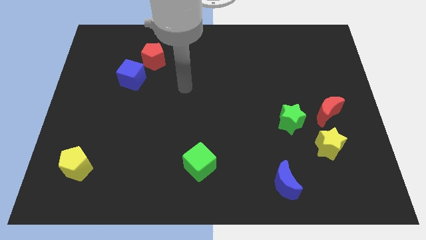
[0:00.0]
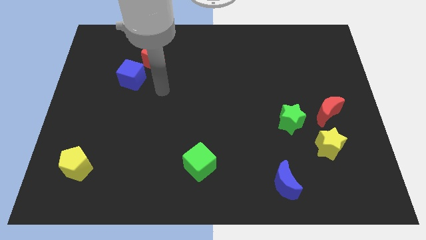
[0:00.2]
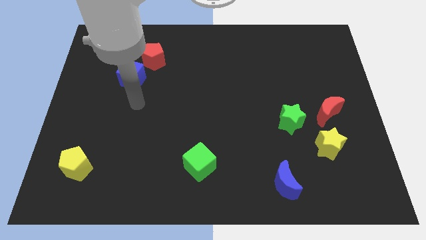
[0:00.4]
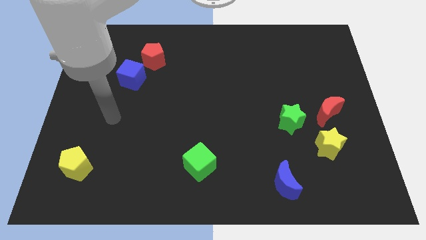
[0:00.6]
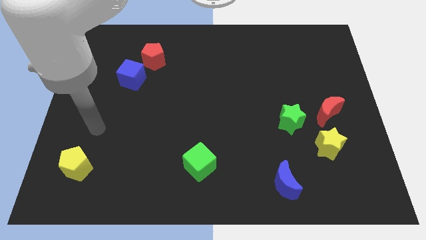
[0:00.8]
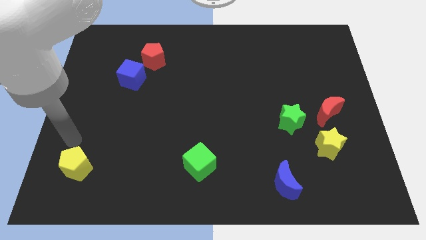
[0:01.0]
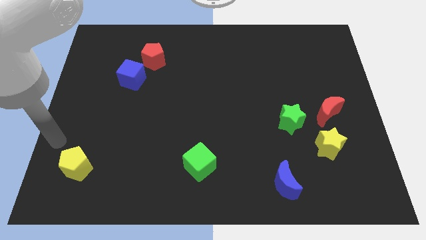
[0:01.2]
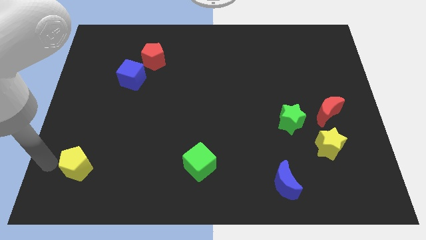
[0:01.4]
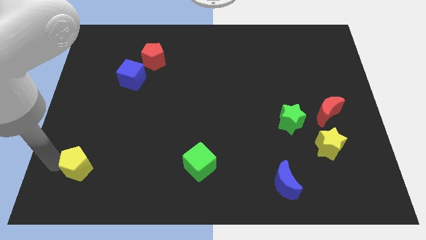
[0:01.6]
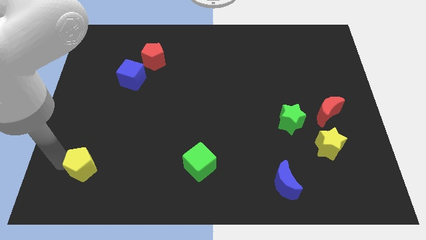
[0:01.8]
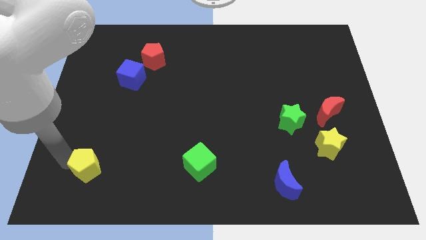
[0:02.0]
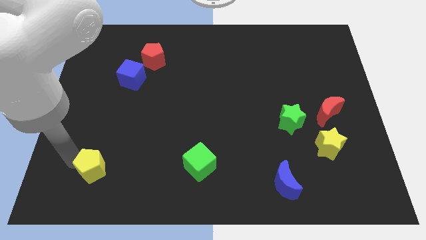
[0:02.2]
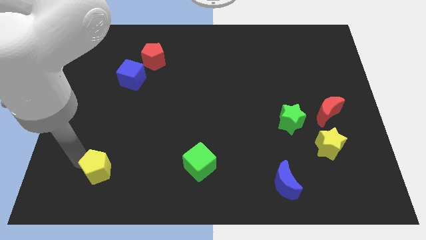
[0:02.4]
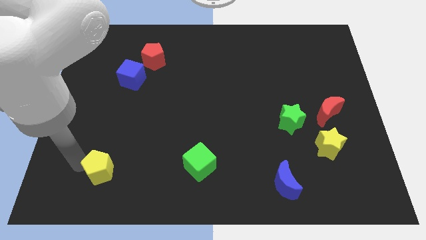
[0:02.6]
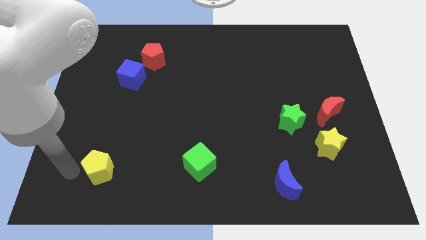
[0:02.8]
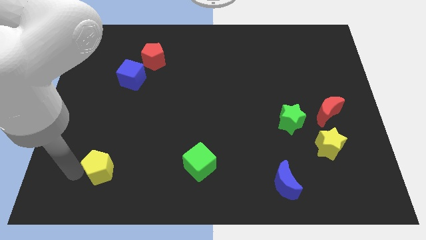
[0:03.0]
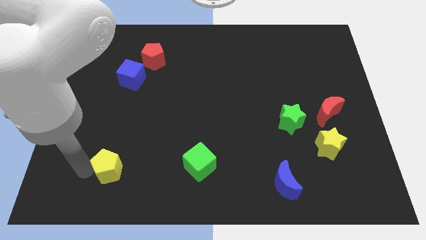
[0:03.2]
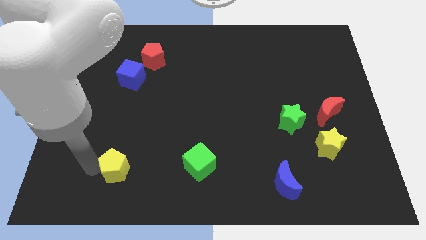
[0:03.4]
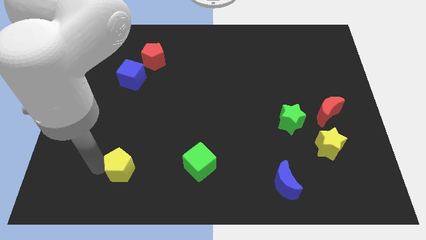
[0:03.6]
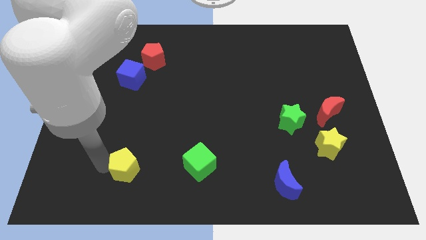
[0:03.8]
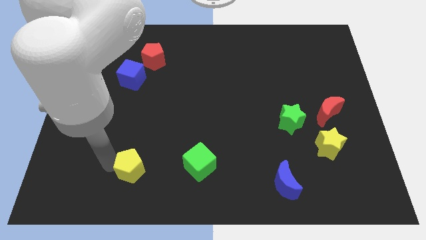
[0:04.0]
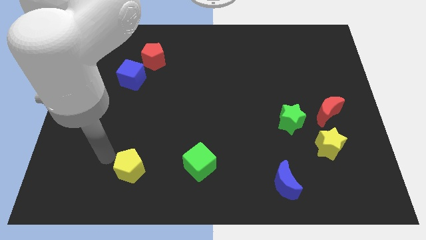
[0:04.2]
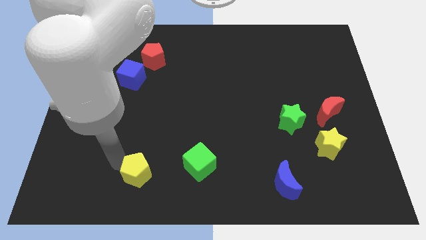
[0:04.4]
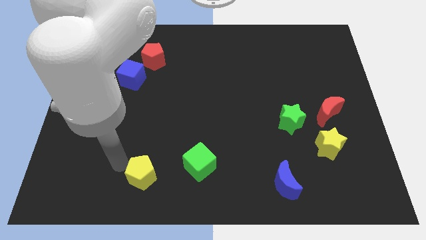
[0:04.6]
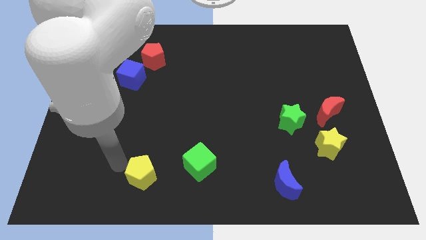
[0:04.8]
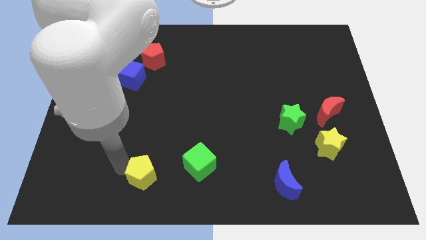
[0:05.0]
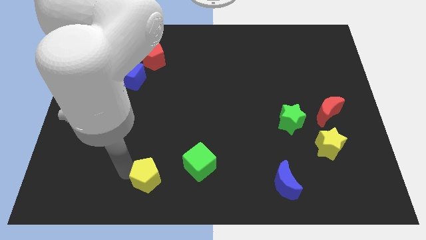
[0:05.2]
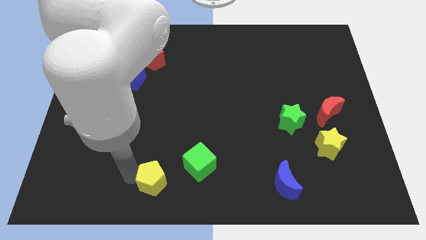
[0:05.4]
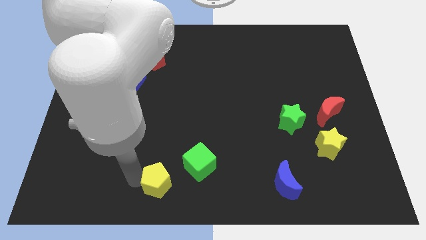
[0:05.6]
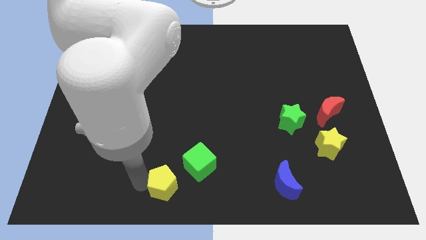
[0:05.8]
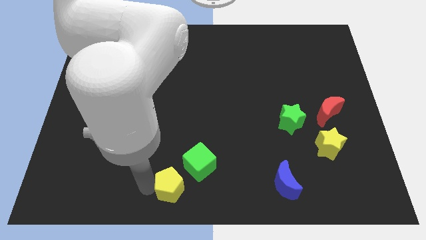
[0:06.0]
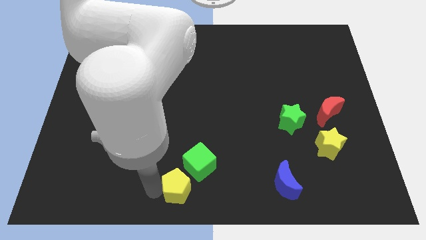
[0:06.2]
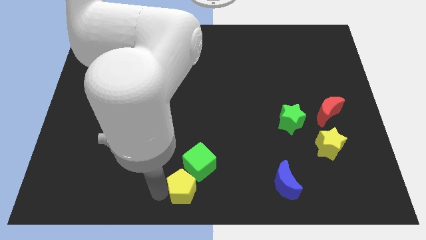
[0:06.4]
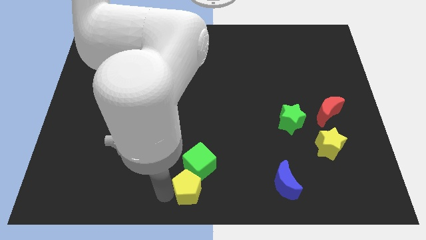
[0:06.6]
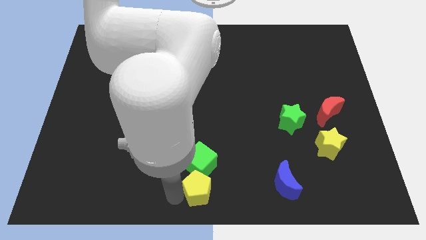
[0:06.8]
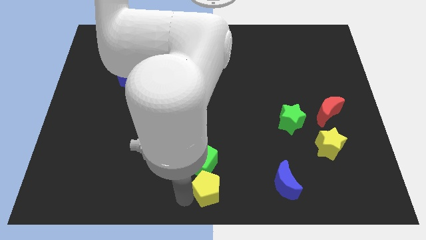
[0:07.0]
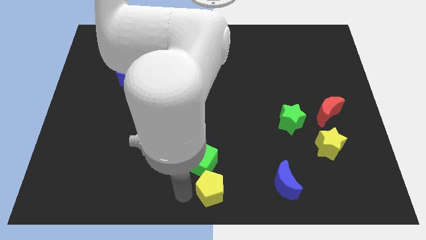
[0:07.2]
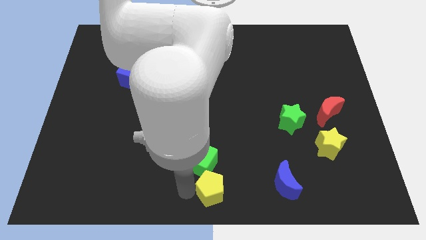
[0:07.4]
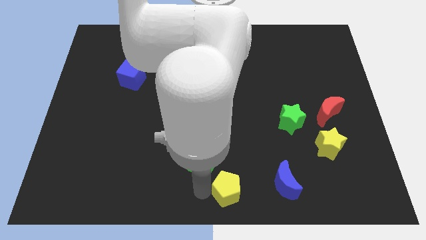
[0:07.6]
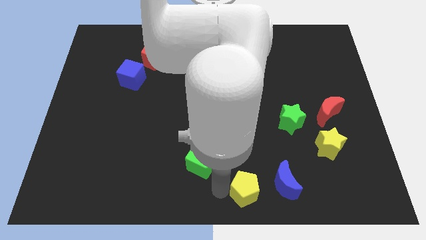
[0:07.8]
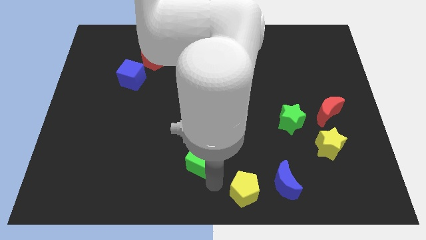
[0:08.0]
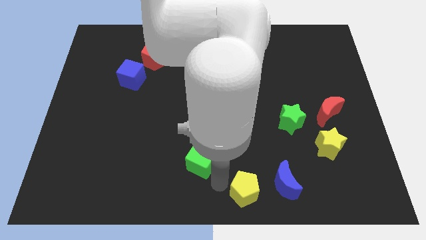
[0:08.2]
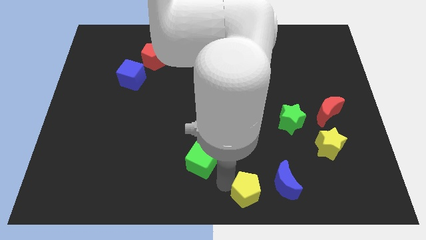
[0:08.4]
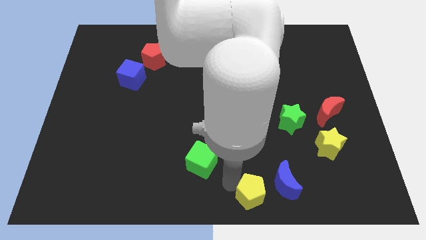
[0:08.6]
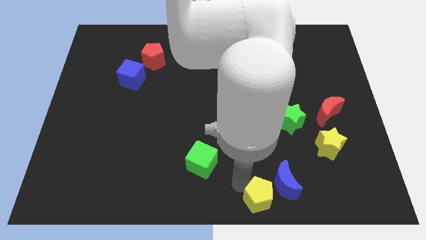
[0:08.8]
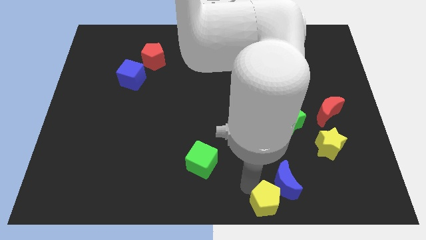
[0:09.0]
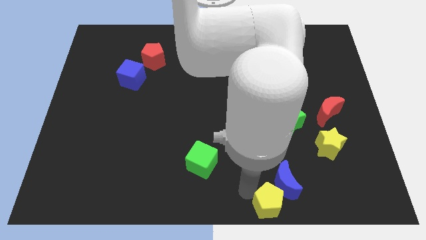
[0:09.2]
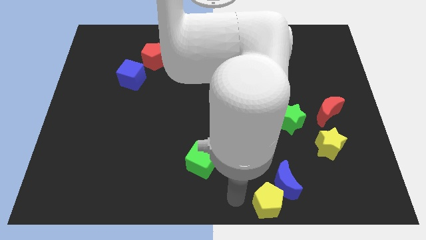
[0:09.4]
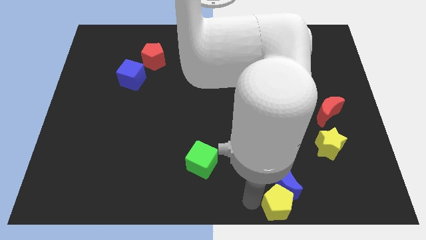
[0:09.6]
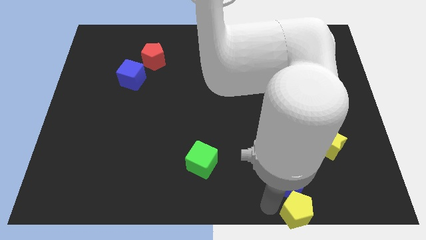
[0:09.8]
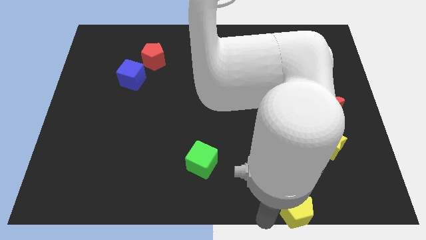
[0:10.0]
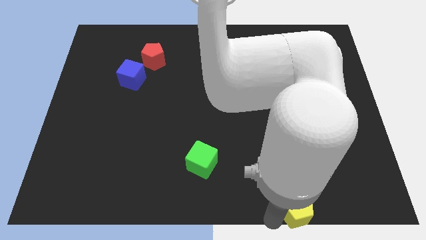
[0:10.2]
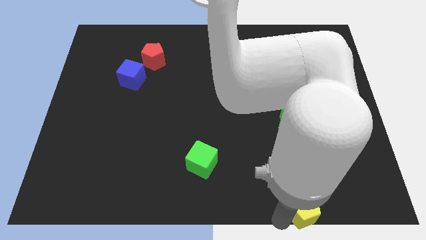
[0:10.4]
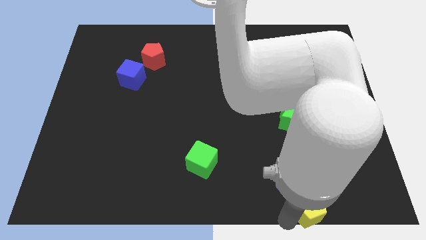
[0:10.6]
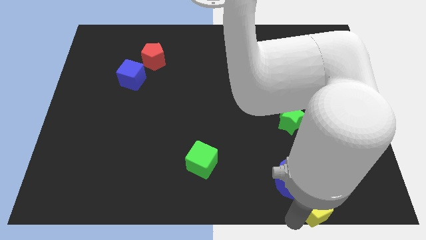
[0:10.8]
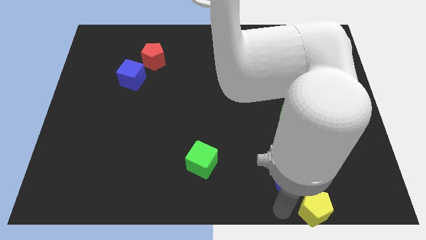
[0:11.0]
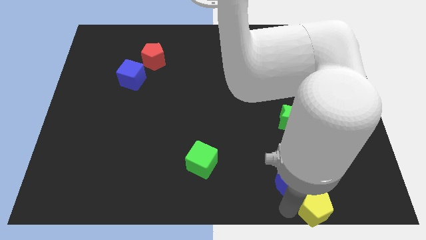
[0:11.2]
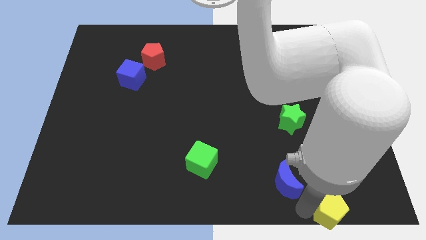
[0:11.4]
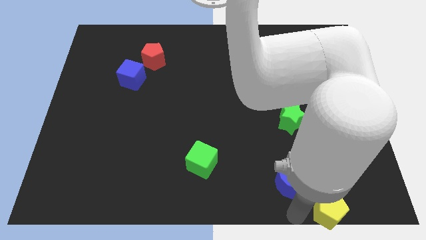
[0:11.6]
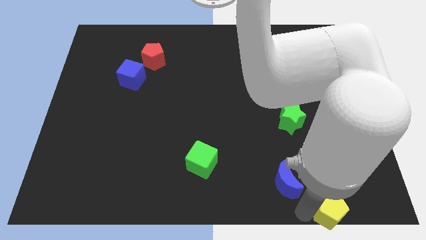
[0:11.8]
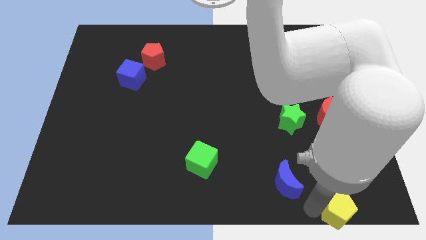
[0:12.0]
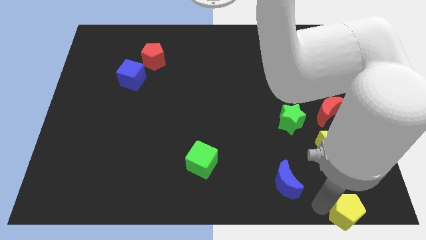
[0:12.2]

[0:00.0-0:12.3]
move the yellow pentagon to the bottom right

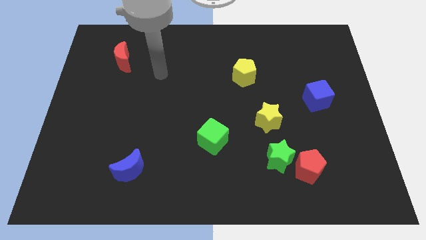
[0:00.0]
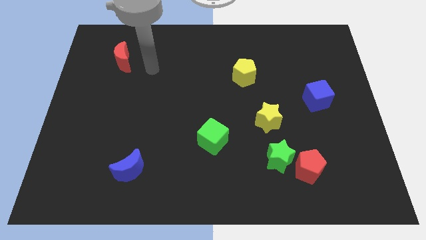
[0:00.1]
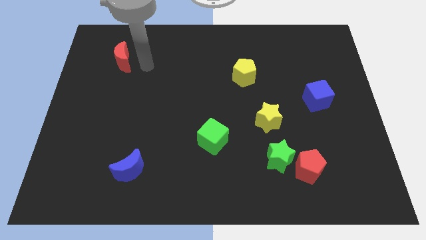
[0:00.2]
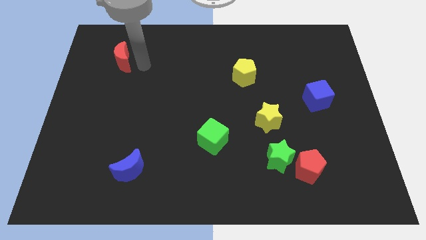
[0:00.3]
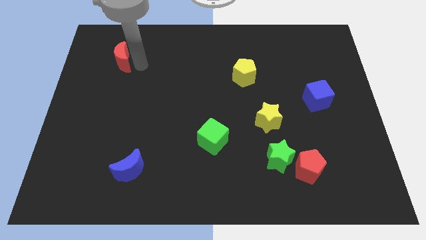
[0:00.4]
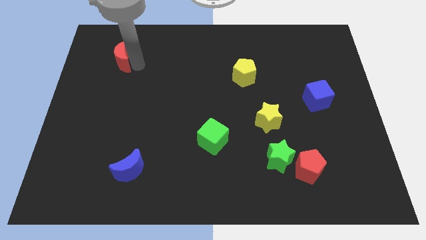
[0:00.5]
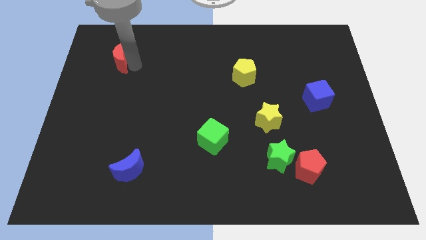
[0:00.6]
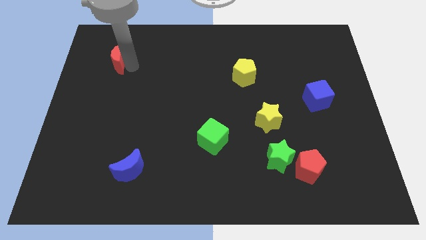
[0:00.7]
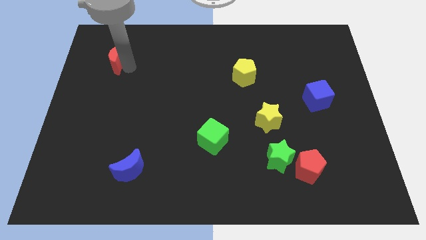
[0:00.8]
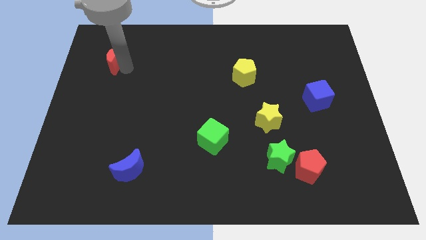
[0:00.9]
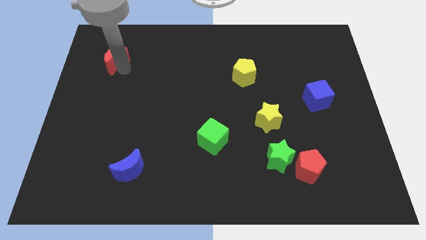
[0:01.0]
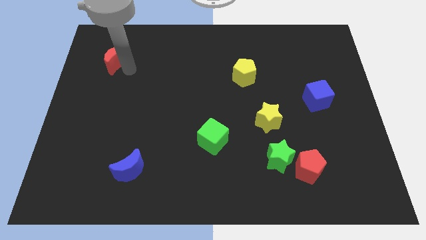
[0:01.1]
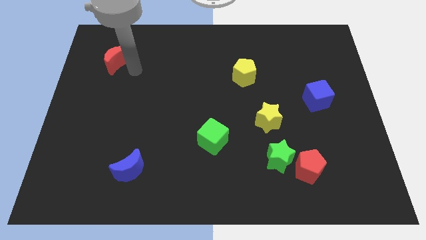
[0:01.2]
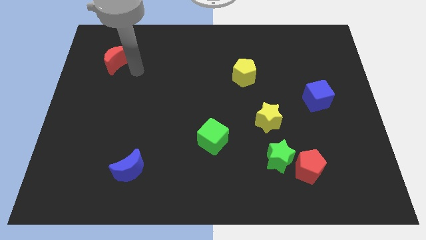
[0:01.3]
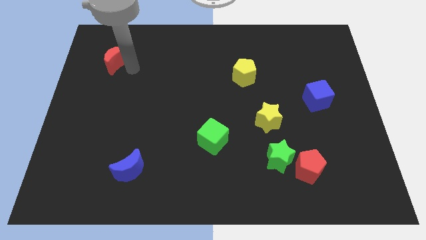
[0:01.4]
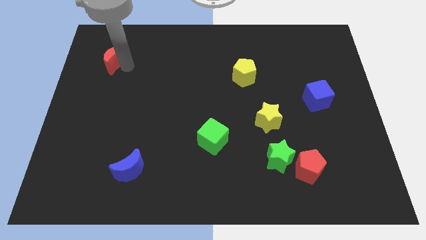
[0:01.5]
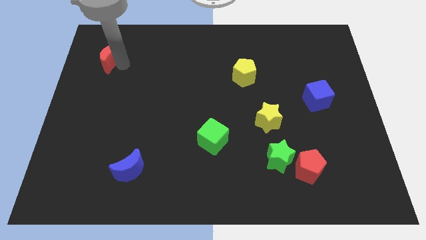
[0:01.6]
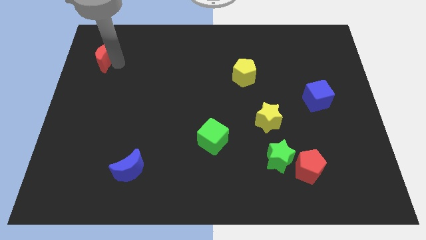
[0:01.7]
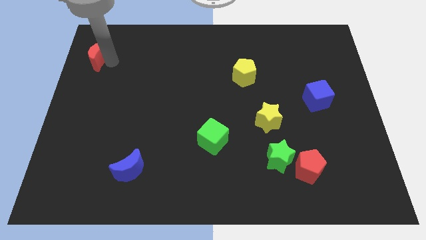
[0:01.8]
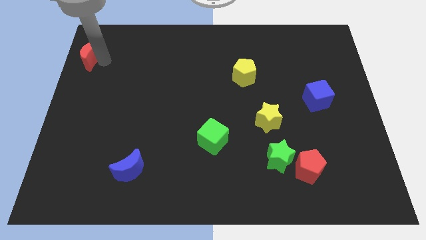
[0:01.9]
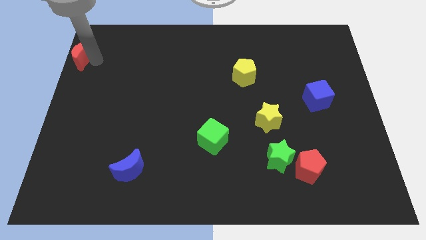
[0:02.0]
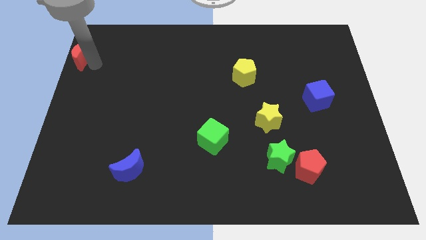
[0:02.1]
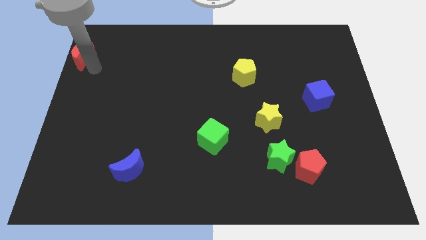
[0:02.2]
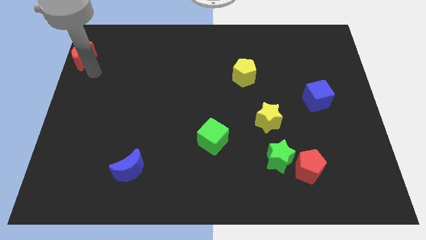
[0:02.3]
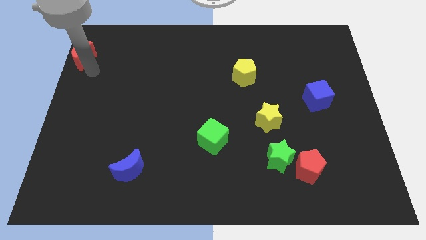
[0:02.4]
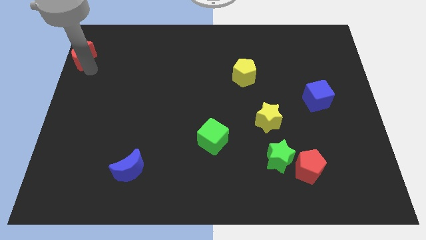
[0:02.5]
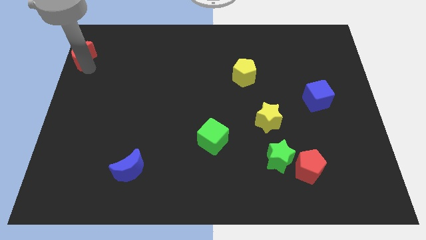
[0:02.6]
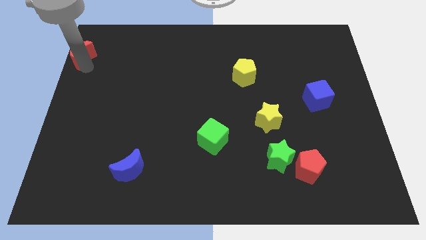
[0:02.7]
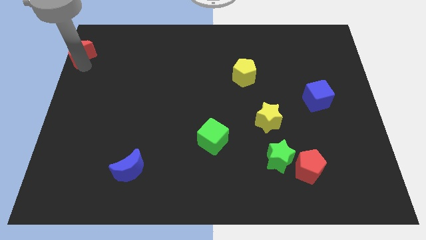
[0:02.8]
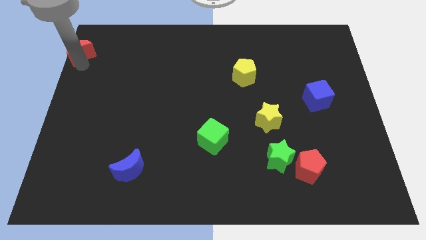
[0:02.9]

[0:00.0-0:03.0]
put the red moon to the top left
